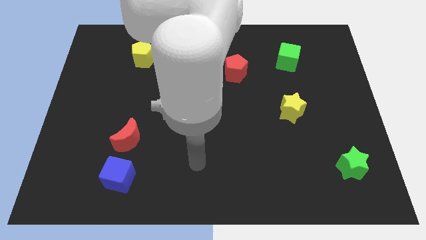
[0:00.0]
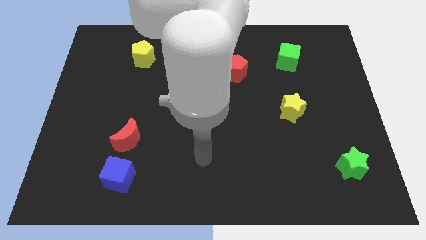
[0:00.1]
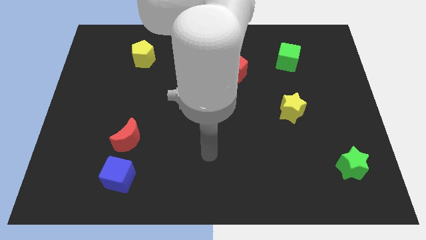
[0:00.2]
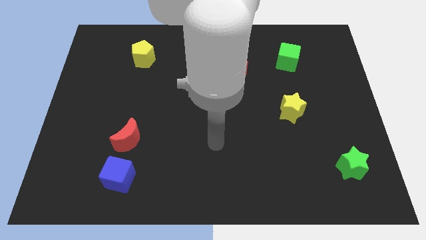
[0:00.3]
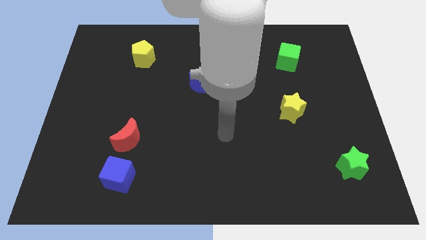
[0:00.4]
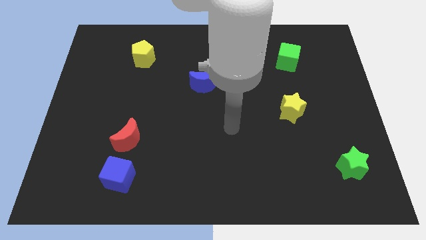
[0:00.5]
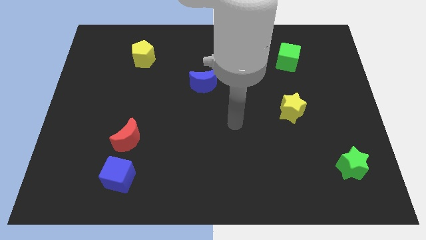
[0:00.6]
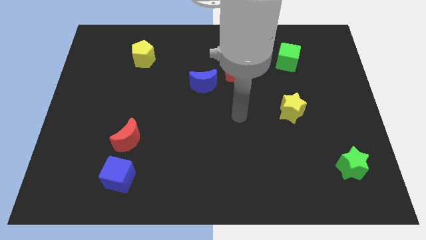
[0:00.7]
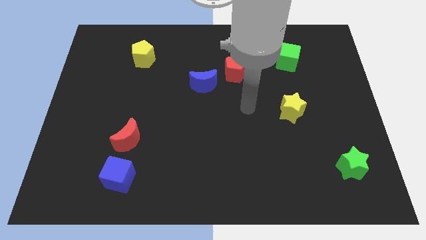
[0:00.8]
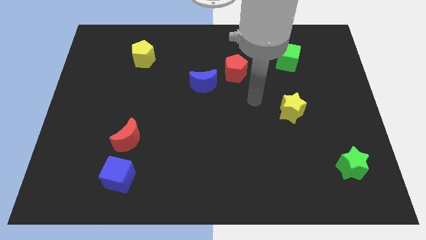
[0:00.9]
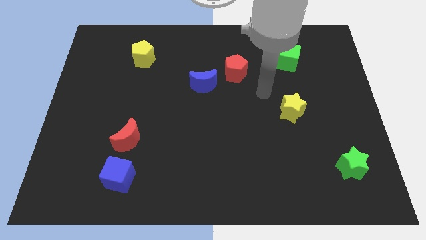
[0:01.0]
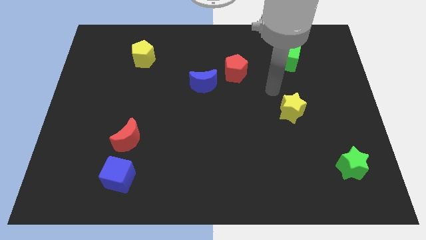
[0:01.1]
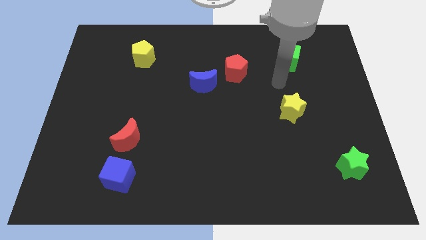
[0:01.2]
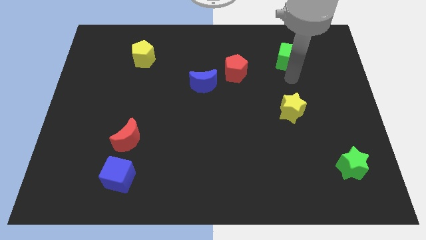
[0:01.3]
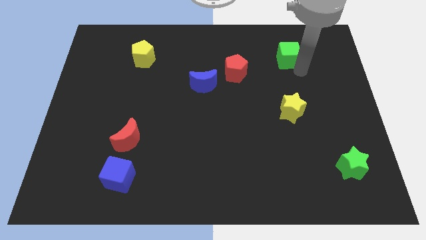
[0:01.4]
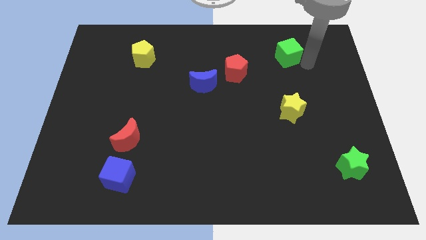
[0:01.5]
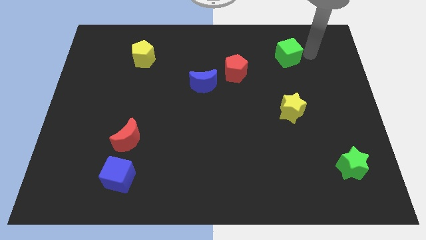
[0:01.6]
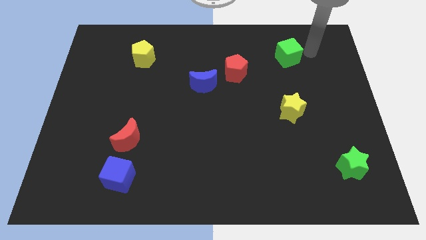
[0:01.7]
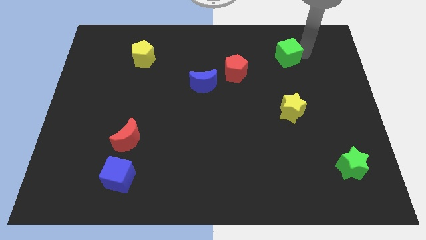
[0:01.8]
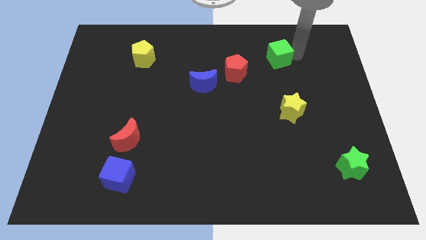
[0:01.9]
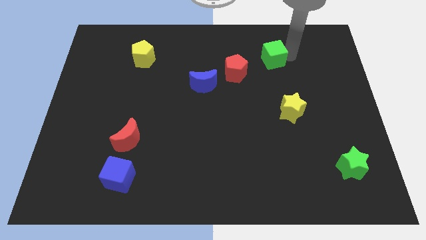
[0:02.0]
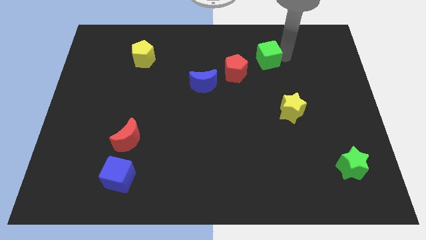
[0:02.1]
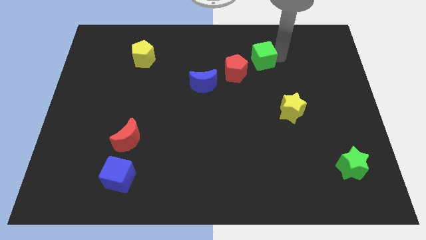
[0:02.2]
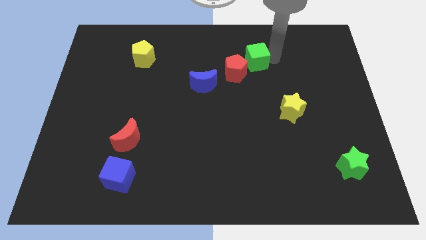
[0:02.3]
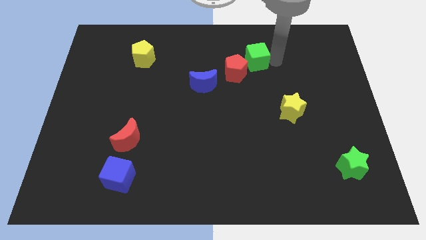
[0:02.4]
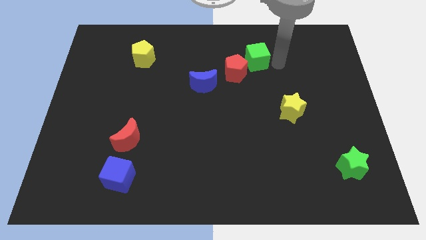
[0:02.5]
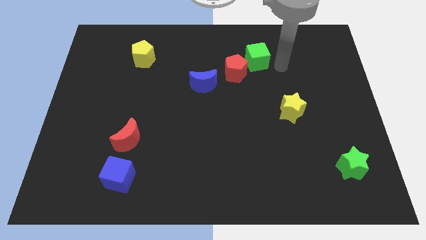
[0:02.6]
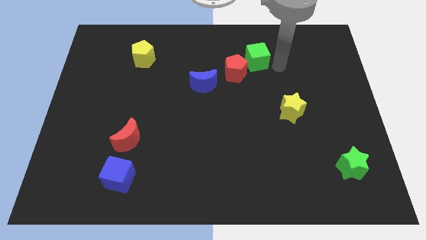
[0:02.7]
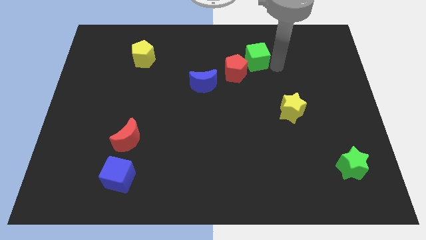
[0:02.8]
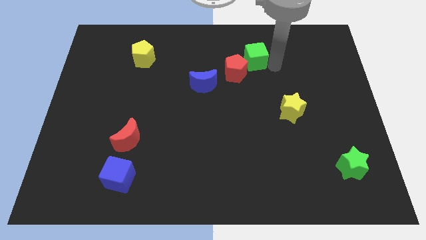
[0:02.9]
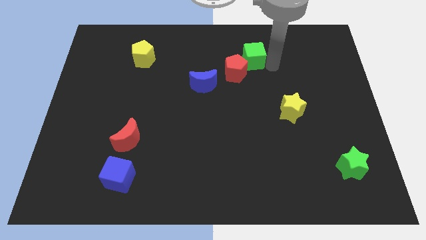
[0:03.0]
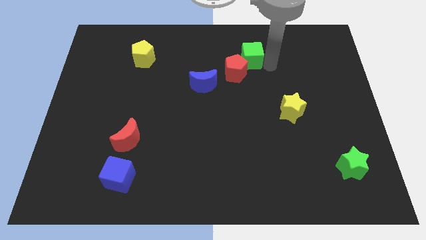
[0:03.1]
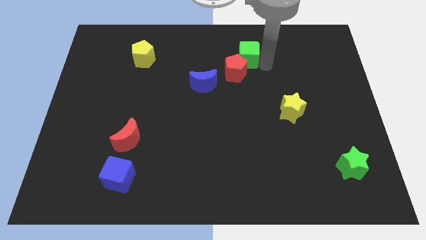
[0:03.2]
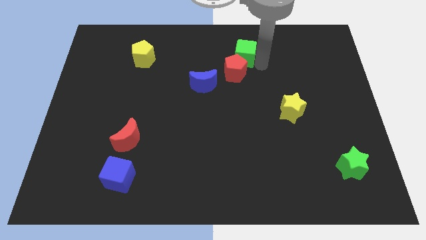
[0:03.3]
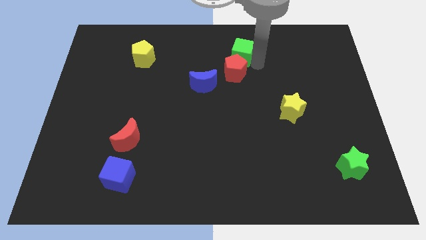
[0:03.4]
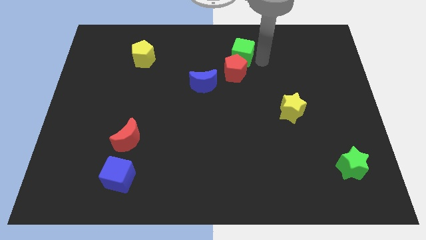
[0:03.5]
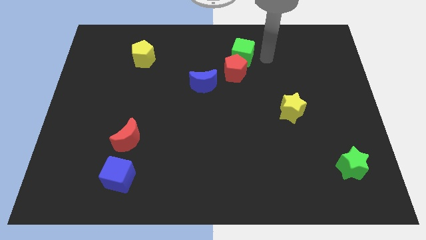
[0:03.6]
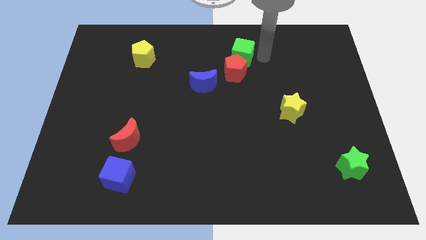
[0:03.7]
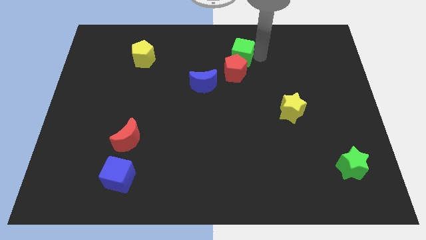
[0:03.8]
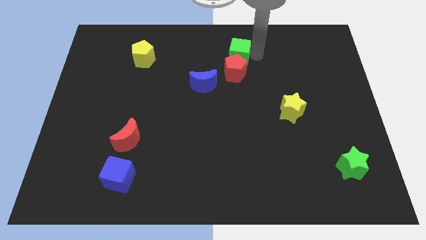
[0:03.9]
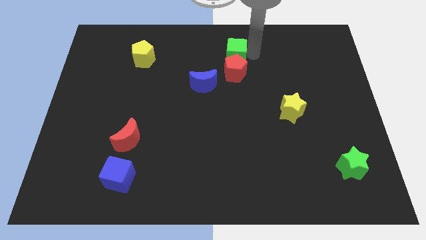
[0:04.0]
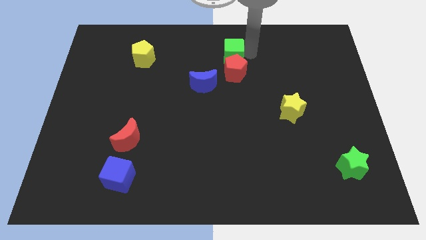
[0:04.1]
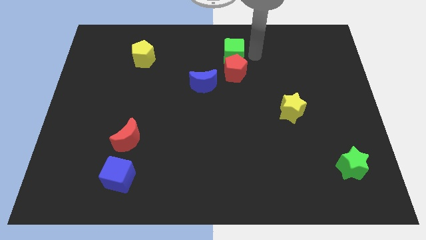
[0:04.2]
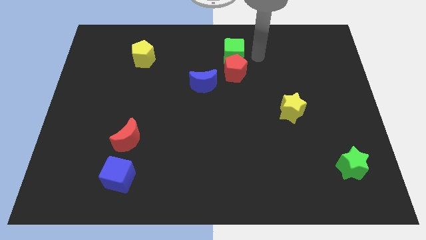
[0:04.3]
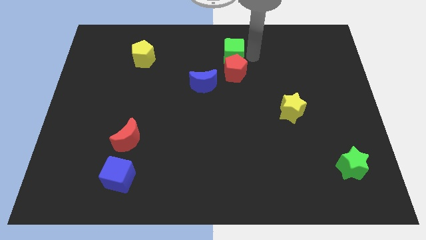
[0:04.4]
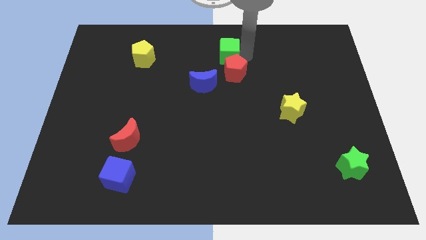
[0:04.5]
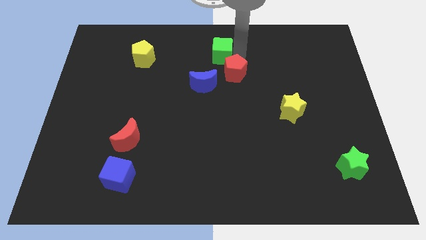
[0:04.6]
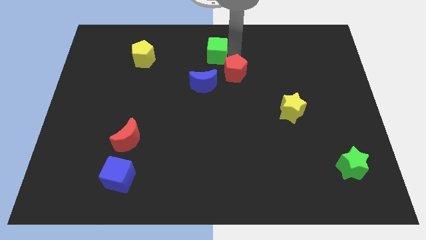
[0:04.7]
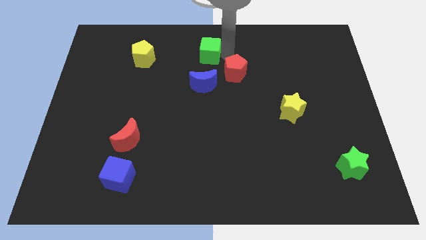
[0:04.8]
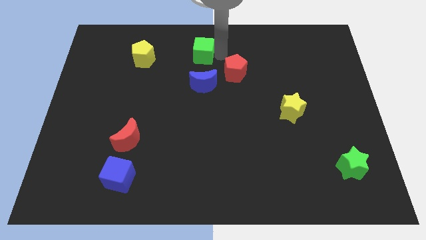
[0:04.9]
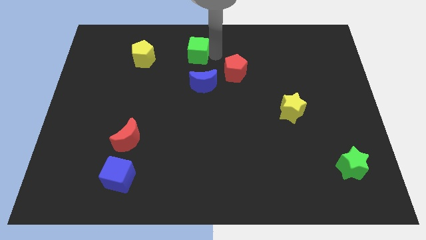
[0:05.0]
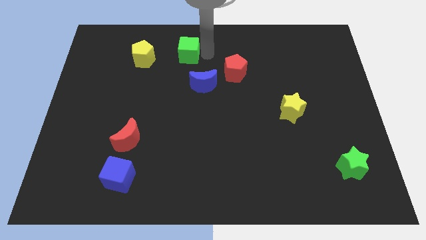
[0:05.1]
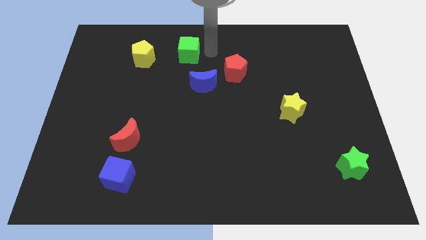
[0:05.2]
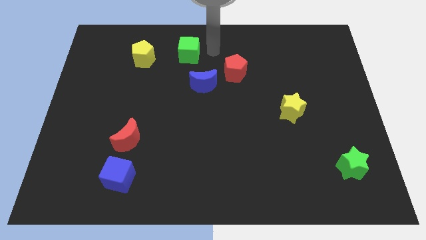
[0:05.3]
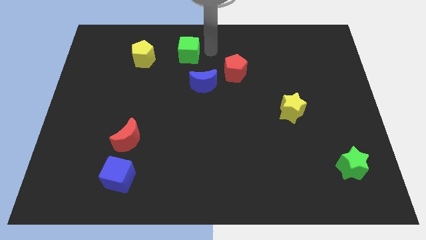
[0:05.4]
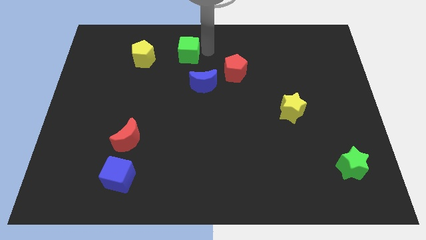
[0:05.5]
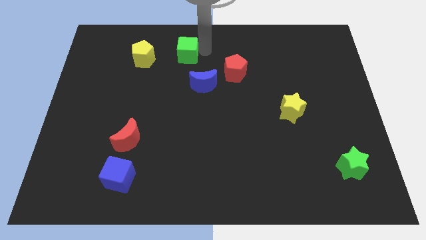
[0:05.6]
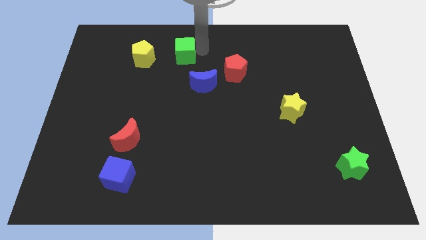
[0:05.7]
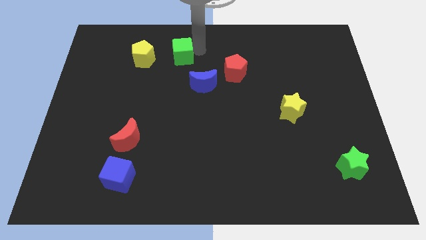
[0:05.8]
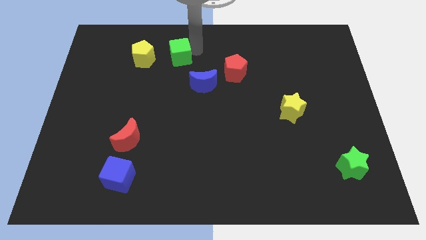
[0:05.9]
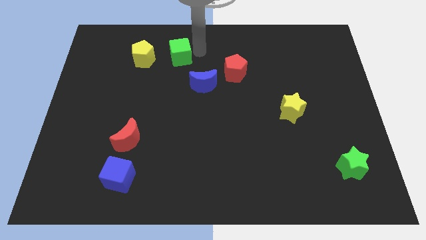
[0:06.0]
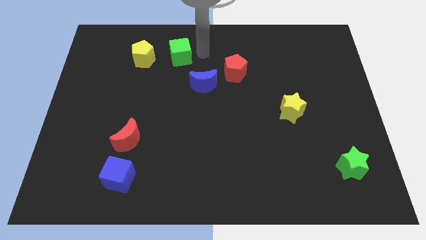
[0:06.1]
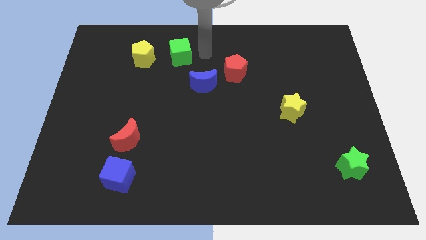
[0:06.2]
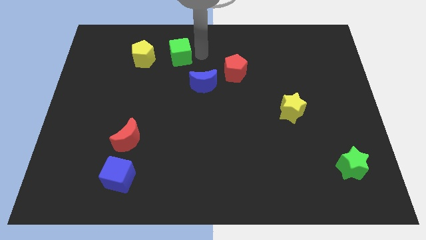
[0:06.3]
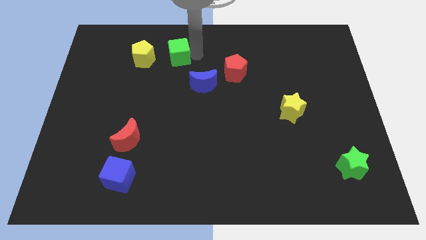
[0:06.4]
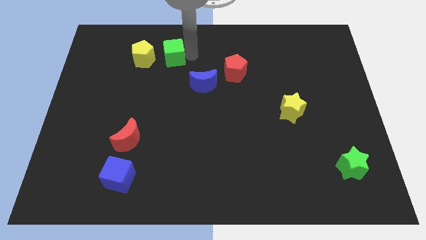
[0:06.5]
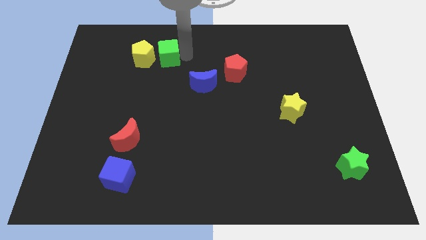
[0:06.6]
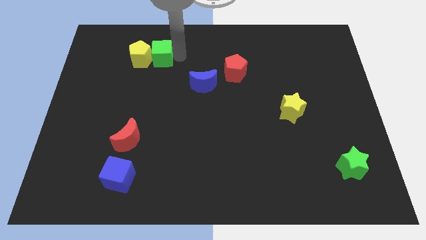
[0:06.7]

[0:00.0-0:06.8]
push the green cube to the yellow pentagon
